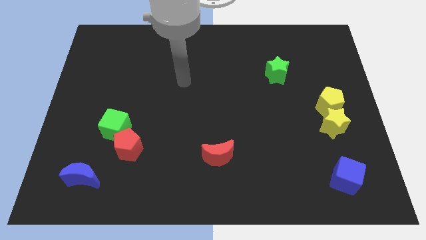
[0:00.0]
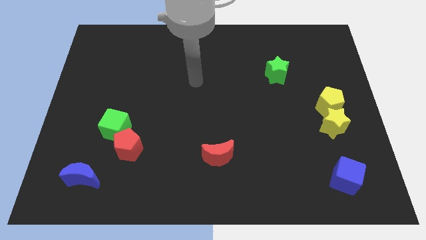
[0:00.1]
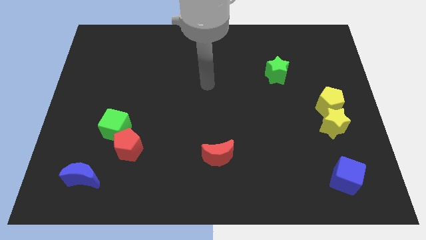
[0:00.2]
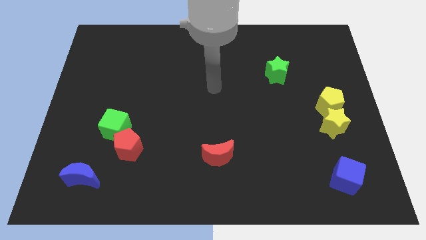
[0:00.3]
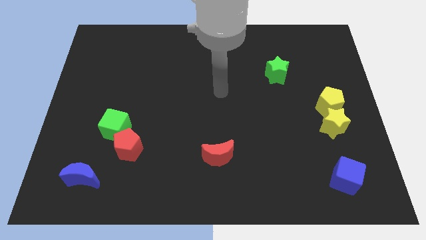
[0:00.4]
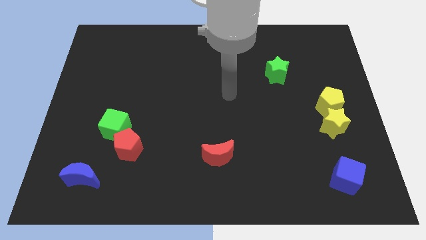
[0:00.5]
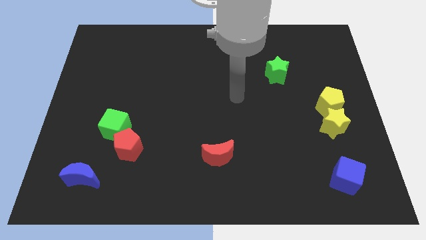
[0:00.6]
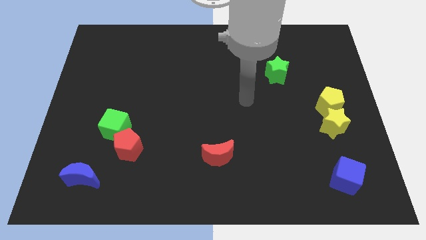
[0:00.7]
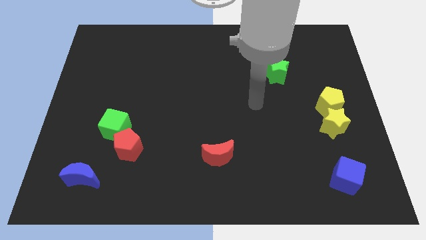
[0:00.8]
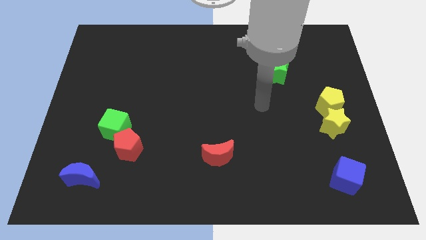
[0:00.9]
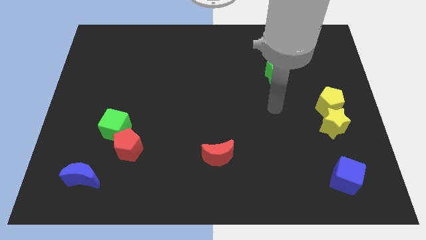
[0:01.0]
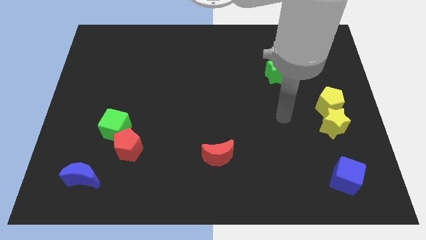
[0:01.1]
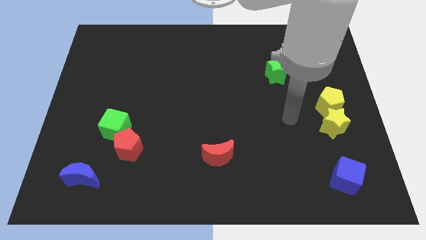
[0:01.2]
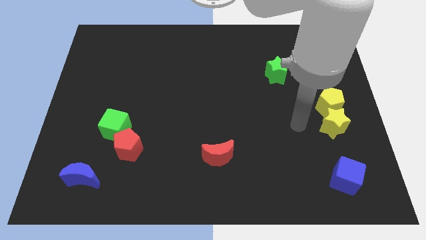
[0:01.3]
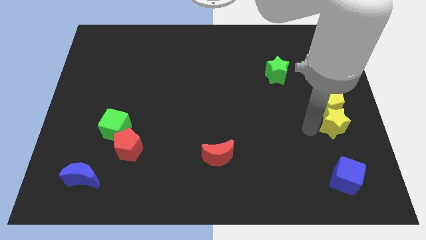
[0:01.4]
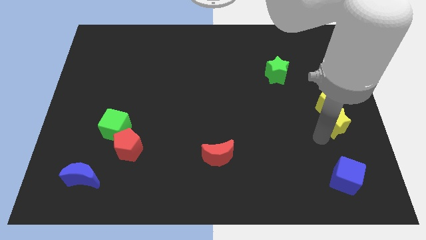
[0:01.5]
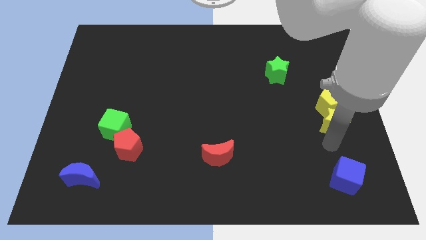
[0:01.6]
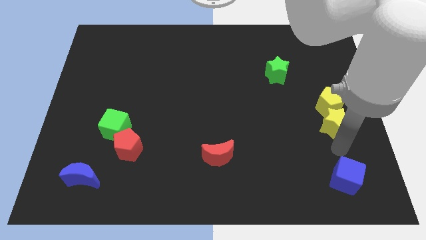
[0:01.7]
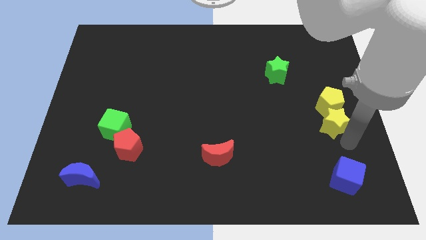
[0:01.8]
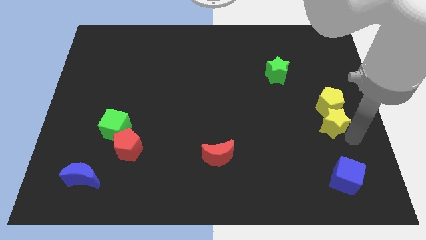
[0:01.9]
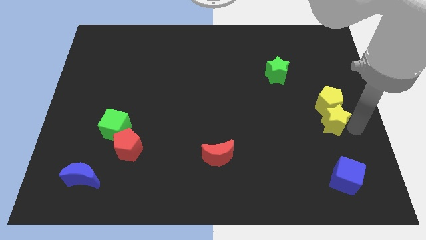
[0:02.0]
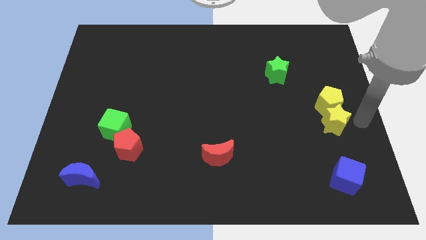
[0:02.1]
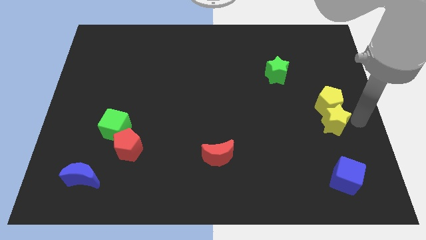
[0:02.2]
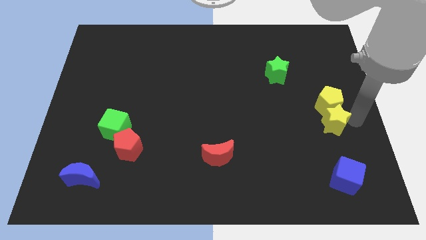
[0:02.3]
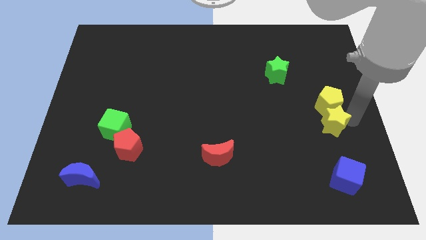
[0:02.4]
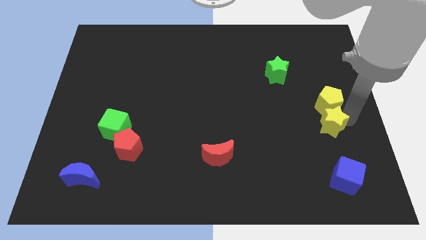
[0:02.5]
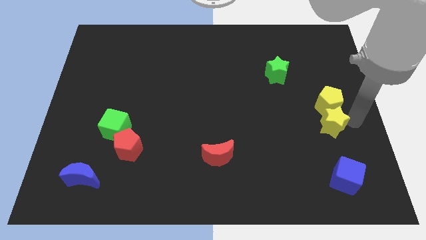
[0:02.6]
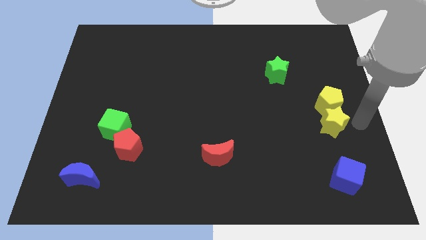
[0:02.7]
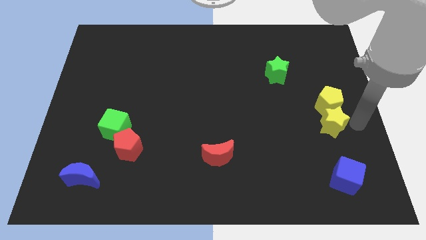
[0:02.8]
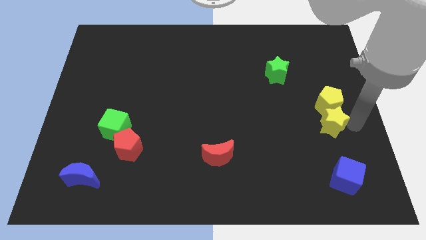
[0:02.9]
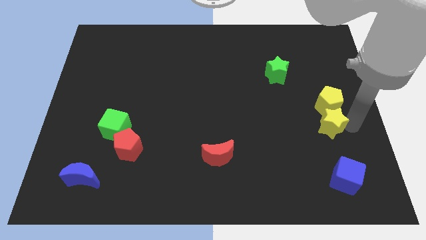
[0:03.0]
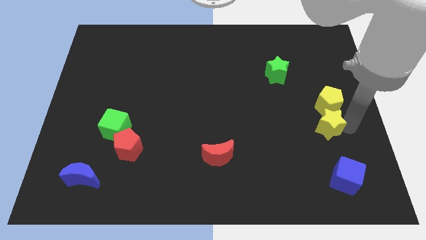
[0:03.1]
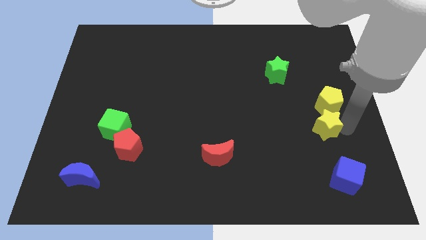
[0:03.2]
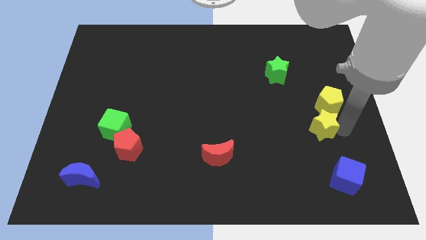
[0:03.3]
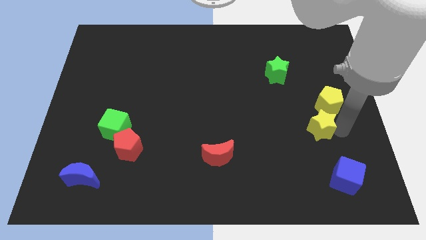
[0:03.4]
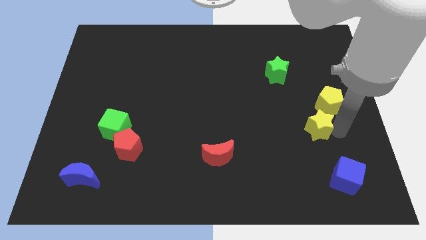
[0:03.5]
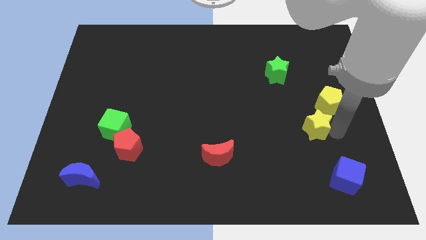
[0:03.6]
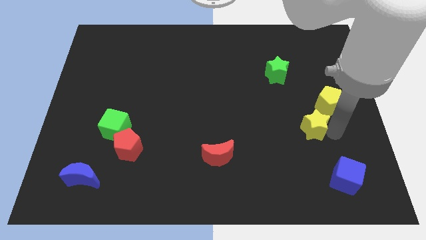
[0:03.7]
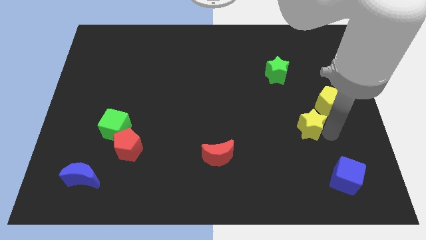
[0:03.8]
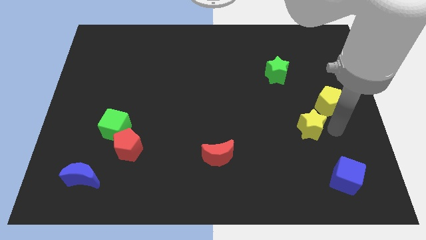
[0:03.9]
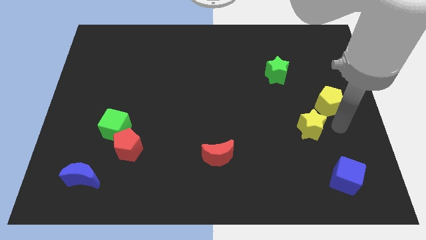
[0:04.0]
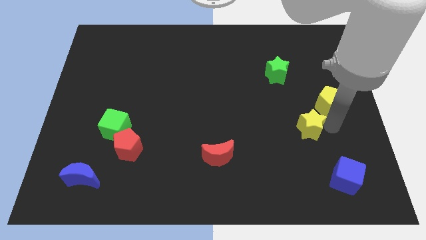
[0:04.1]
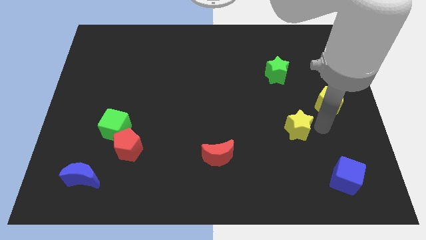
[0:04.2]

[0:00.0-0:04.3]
slide the yellow star to the left a little

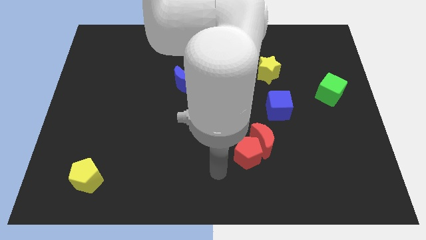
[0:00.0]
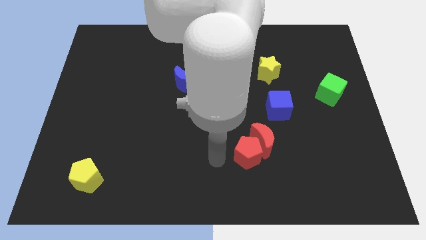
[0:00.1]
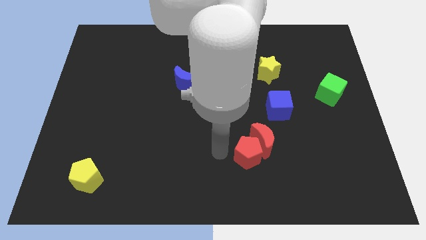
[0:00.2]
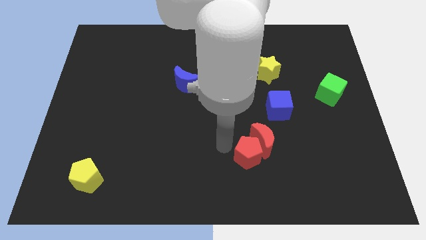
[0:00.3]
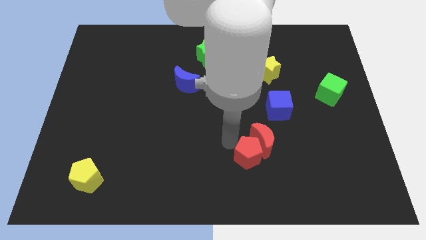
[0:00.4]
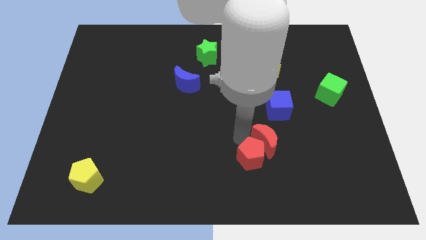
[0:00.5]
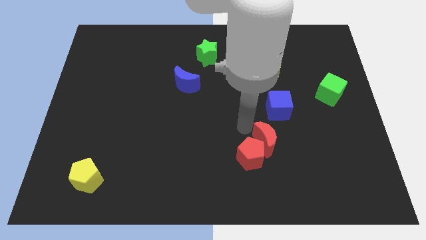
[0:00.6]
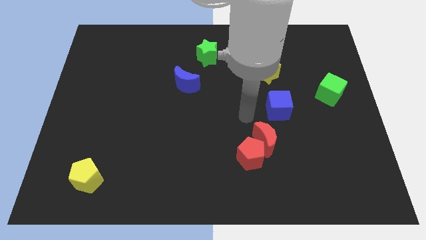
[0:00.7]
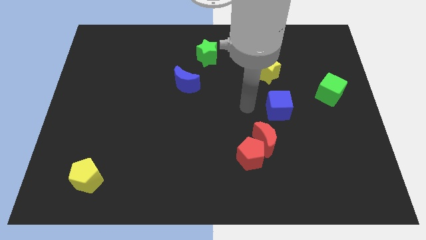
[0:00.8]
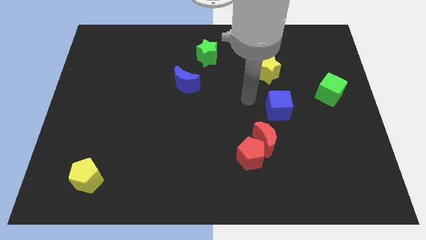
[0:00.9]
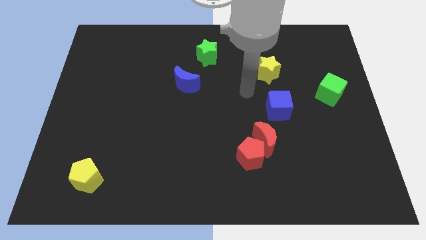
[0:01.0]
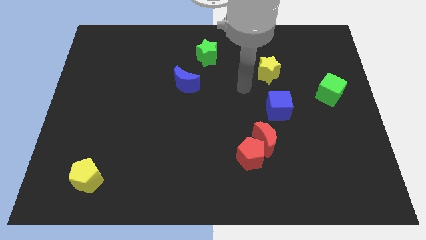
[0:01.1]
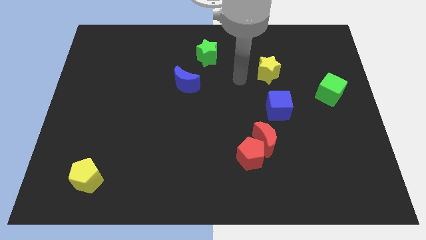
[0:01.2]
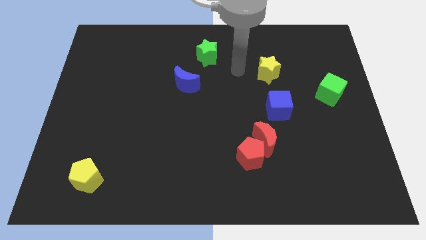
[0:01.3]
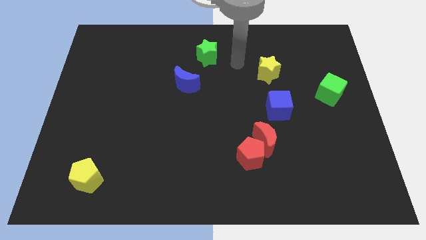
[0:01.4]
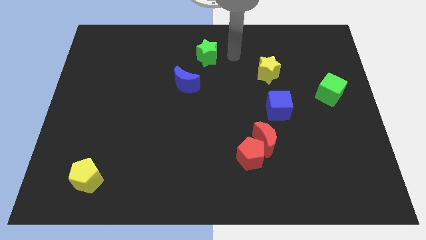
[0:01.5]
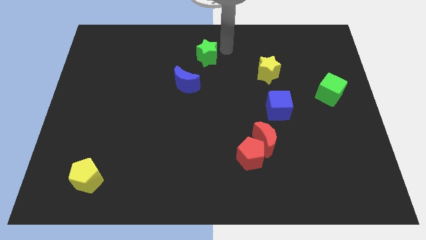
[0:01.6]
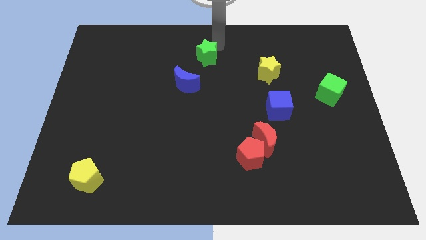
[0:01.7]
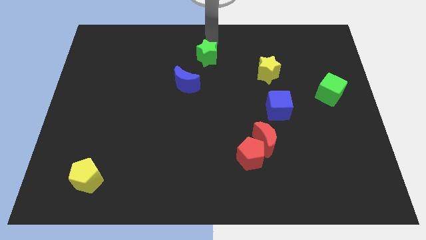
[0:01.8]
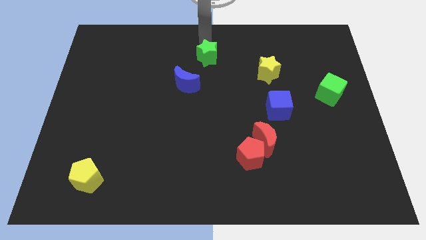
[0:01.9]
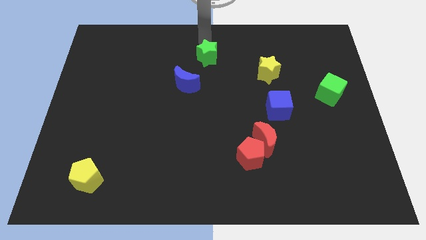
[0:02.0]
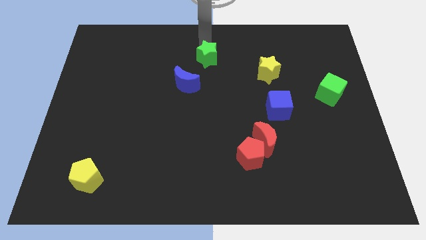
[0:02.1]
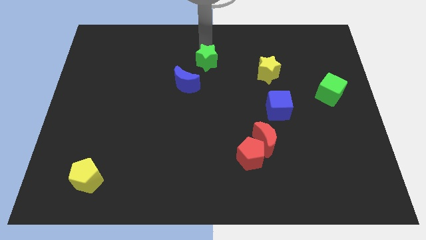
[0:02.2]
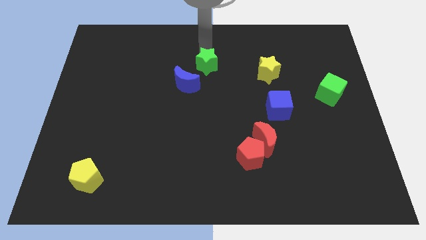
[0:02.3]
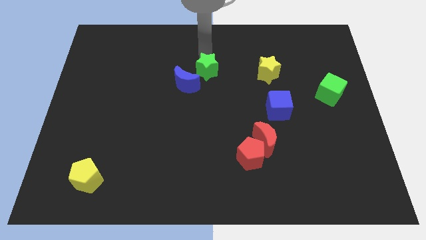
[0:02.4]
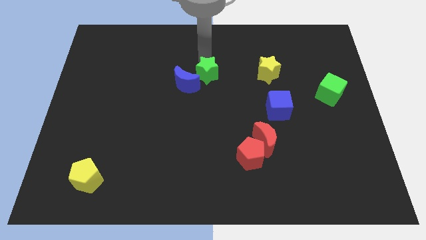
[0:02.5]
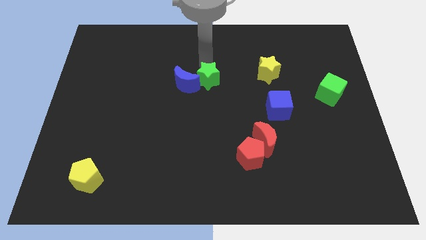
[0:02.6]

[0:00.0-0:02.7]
slightly move the green star downwards

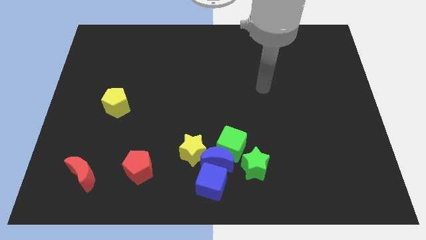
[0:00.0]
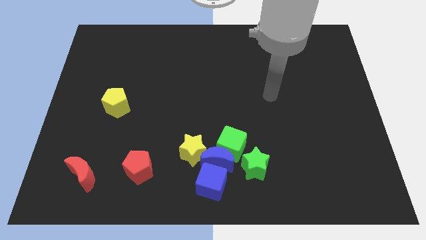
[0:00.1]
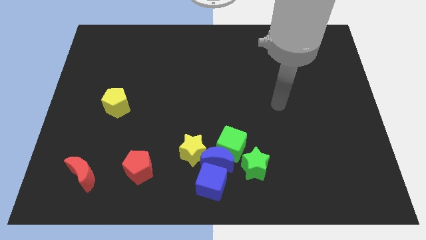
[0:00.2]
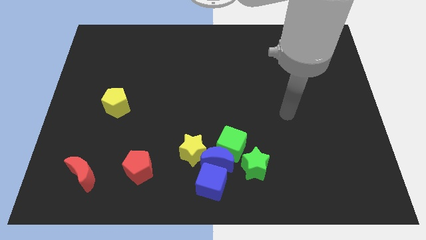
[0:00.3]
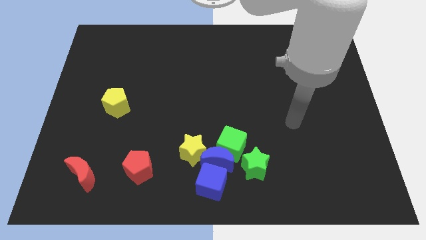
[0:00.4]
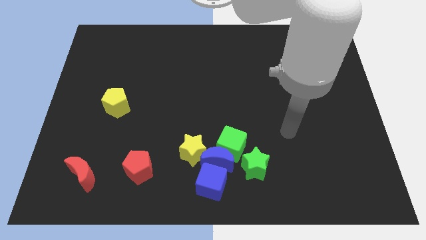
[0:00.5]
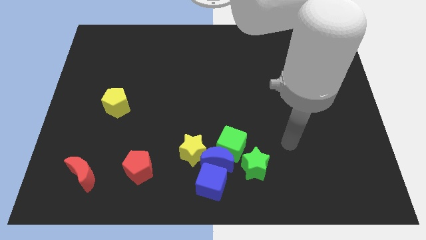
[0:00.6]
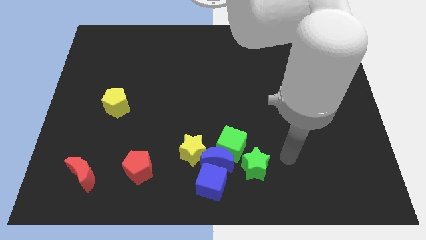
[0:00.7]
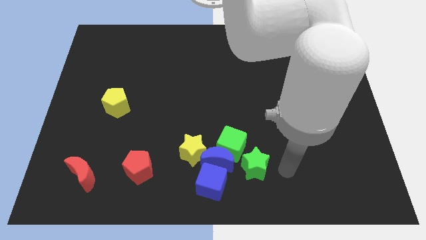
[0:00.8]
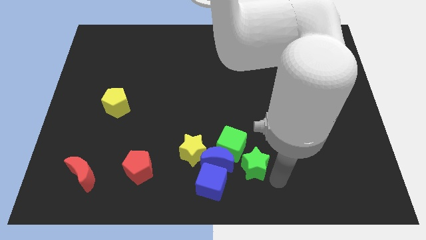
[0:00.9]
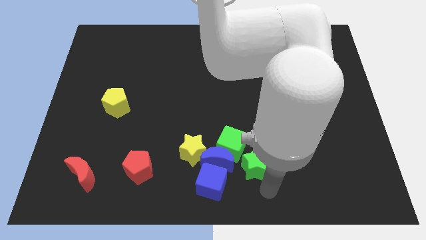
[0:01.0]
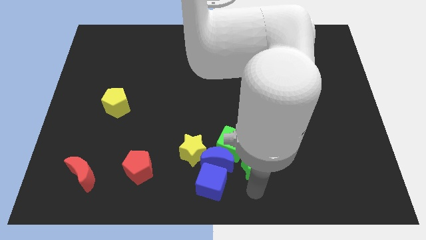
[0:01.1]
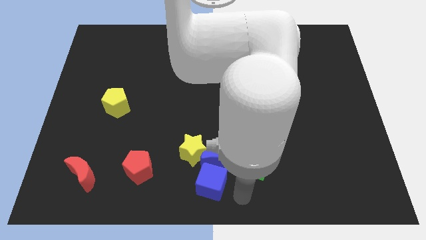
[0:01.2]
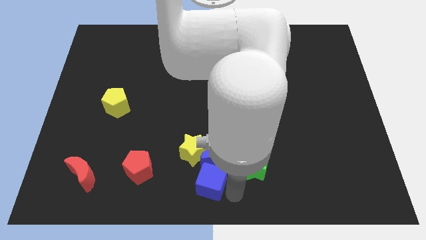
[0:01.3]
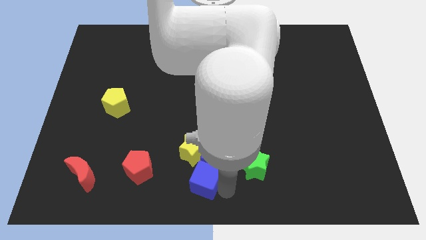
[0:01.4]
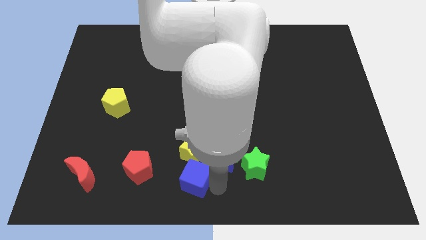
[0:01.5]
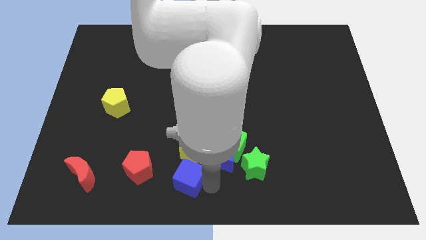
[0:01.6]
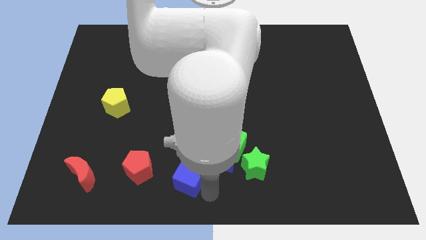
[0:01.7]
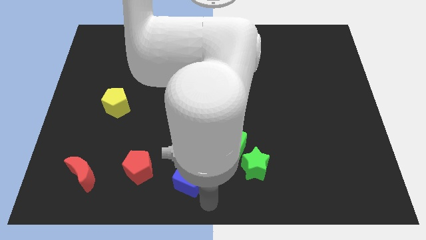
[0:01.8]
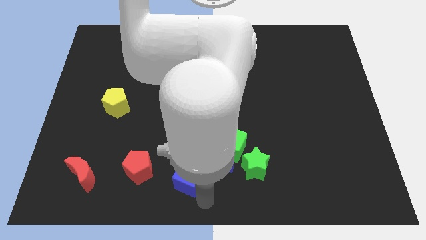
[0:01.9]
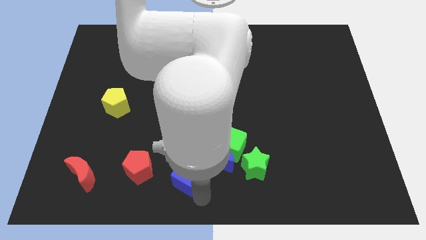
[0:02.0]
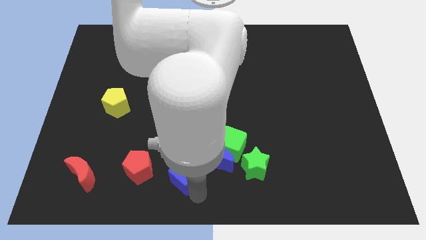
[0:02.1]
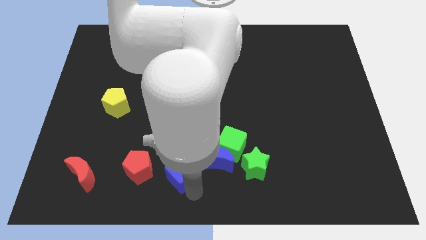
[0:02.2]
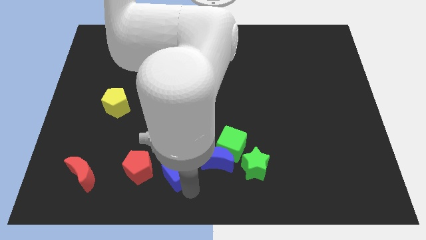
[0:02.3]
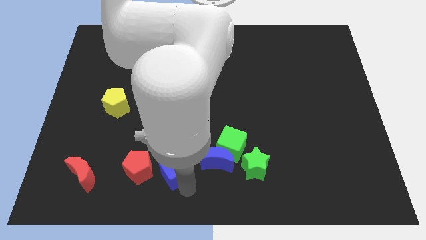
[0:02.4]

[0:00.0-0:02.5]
slide the blue cube upwards and left a little
